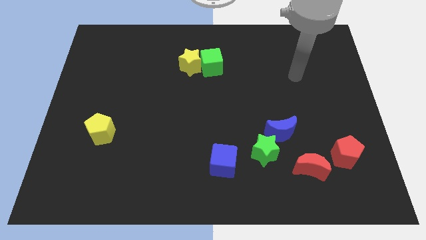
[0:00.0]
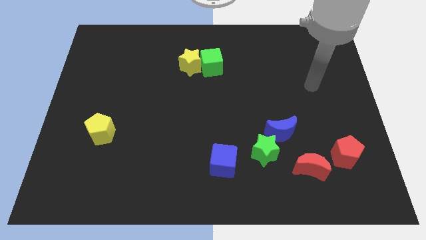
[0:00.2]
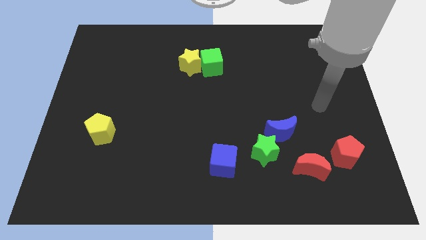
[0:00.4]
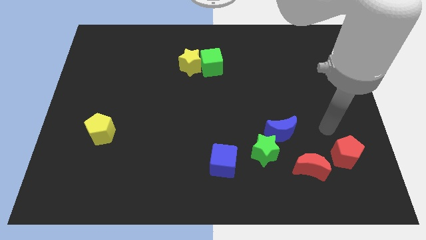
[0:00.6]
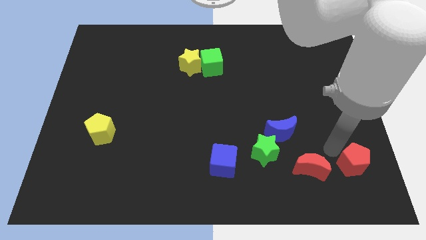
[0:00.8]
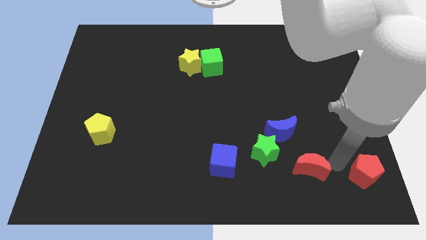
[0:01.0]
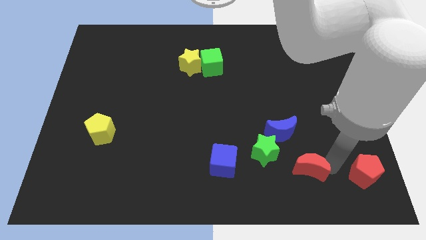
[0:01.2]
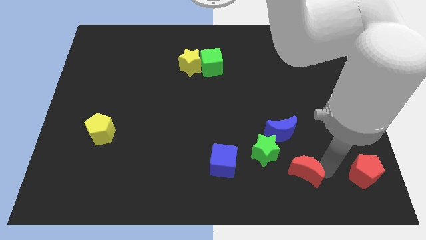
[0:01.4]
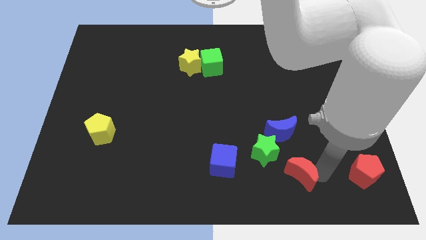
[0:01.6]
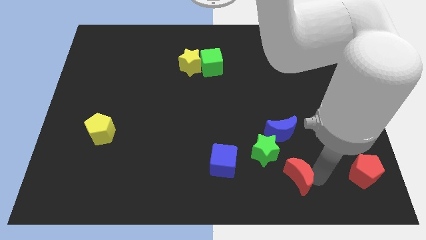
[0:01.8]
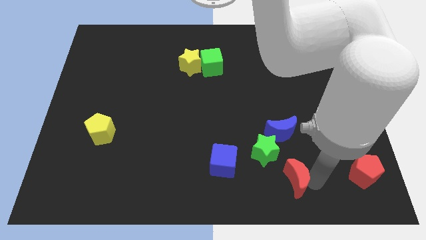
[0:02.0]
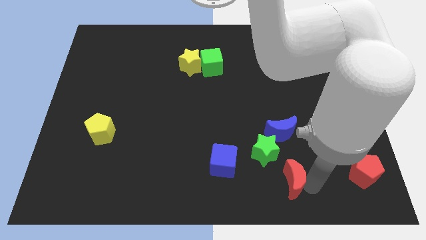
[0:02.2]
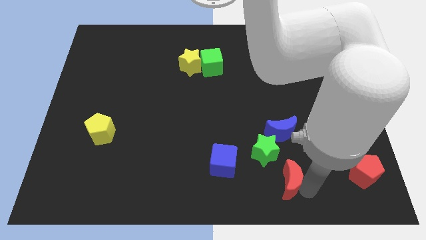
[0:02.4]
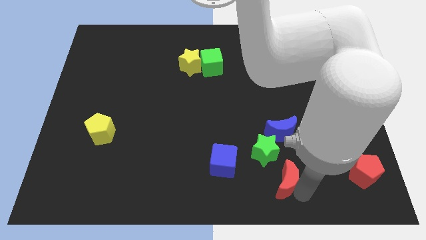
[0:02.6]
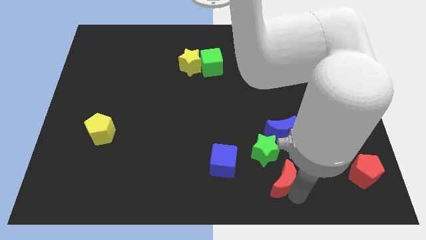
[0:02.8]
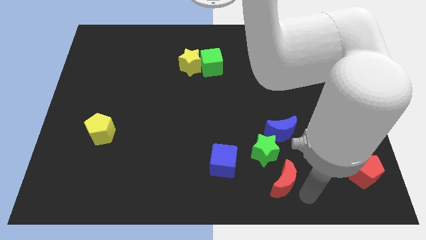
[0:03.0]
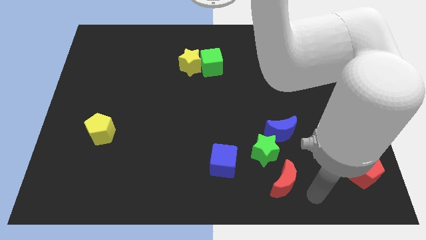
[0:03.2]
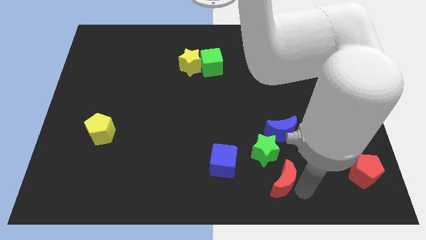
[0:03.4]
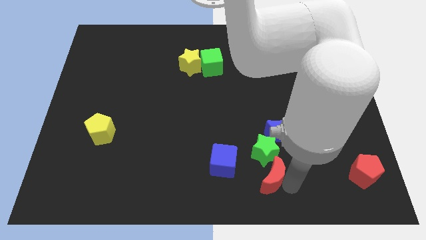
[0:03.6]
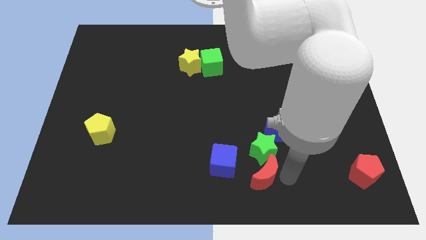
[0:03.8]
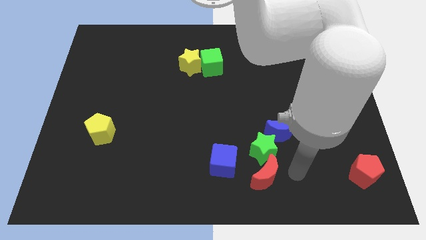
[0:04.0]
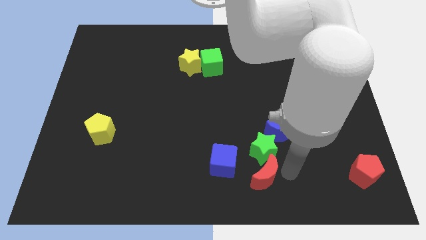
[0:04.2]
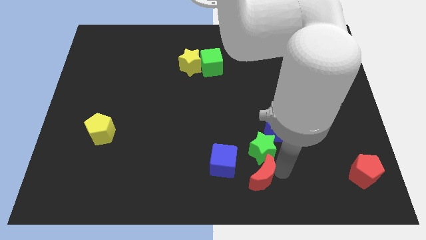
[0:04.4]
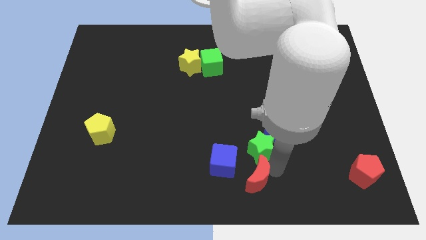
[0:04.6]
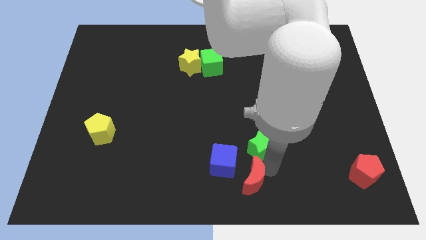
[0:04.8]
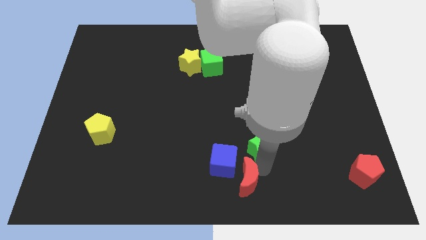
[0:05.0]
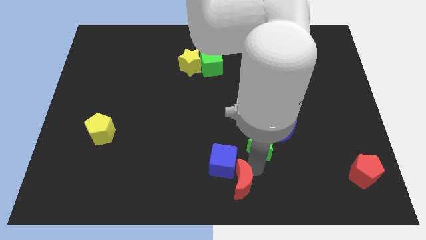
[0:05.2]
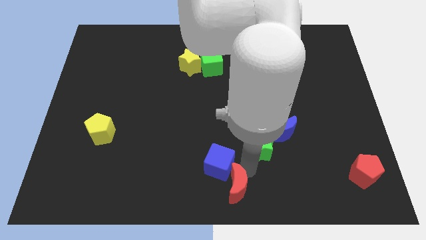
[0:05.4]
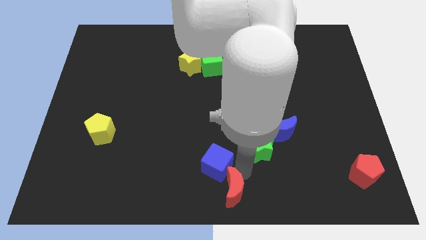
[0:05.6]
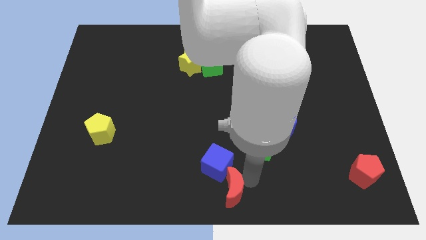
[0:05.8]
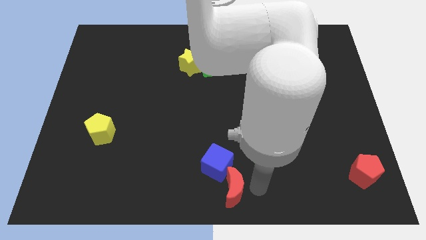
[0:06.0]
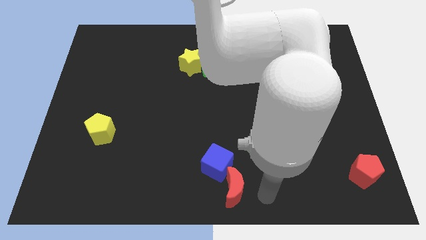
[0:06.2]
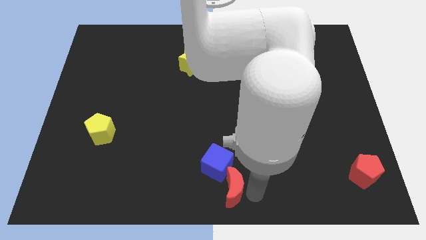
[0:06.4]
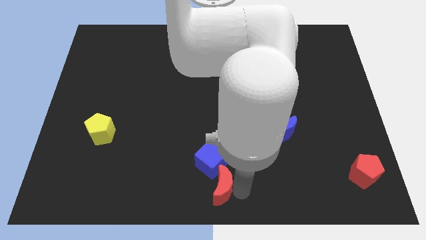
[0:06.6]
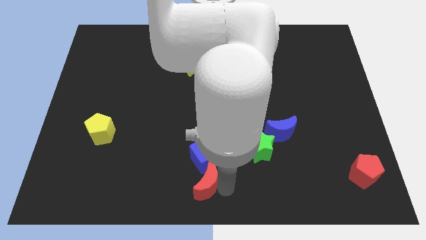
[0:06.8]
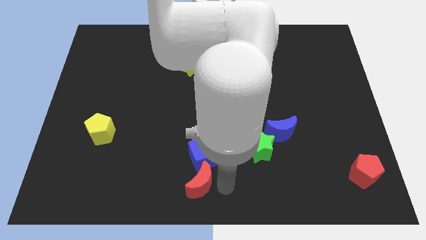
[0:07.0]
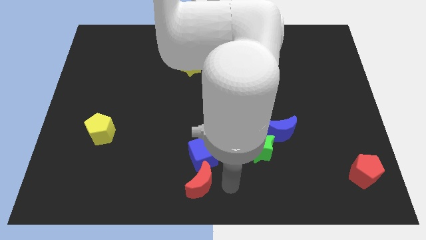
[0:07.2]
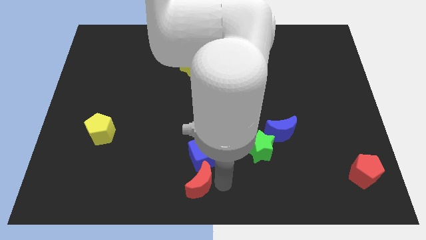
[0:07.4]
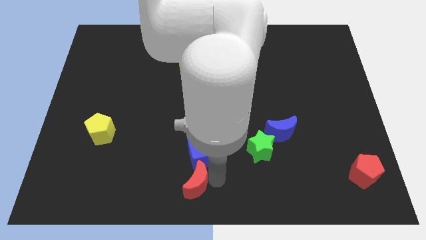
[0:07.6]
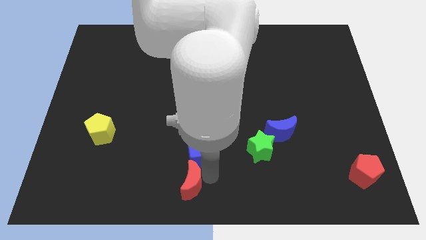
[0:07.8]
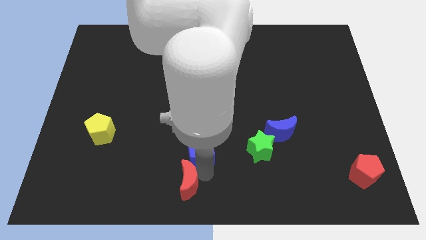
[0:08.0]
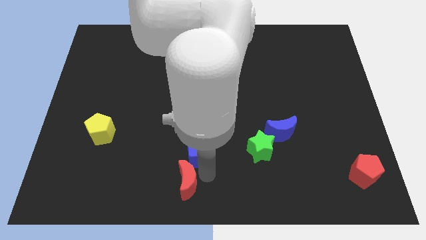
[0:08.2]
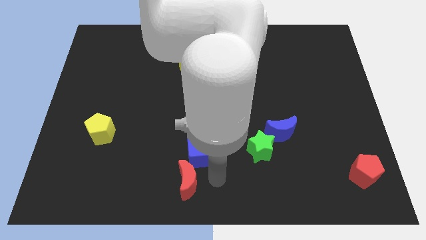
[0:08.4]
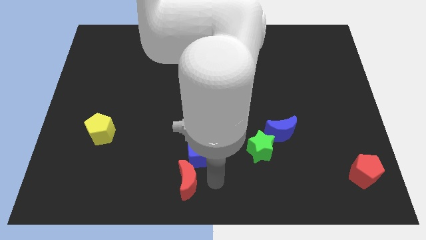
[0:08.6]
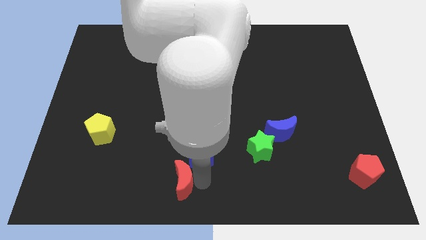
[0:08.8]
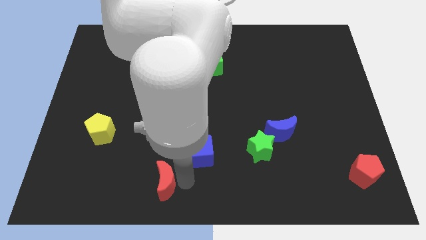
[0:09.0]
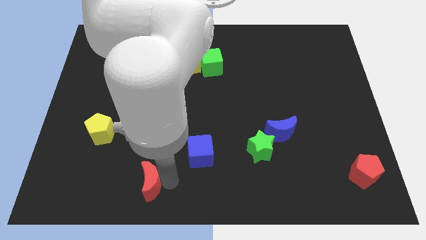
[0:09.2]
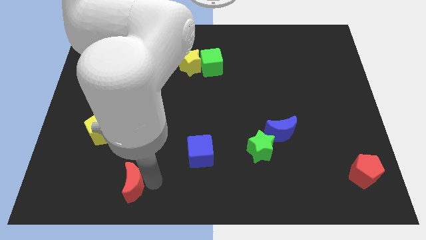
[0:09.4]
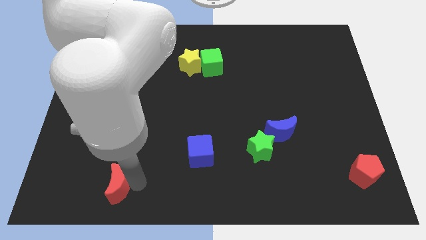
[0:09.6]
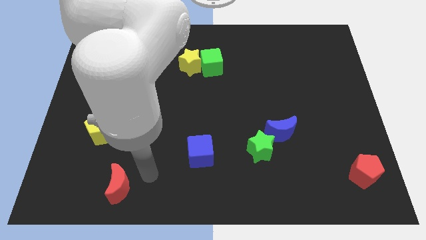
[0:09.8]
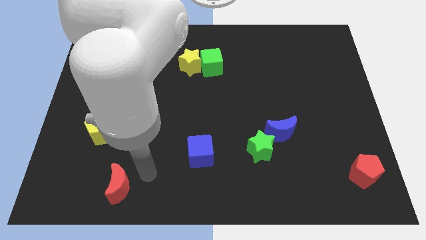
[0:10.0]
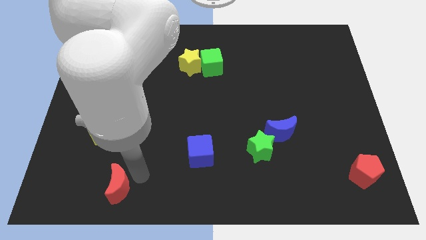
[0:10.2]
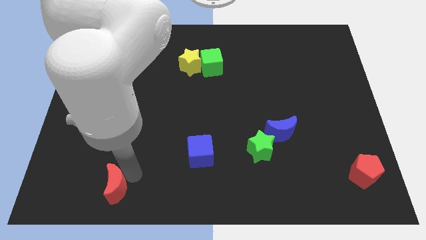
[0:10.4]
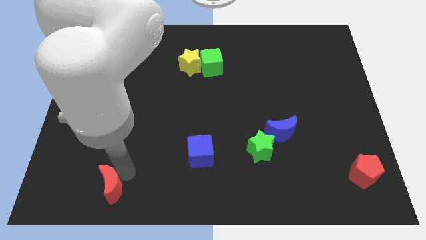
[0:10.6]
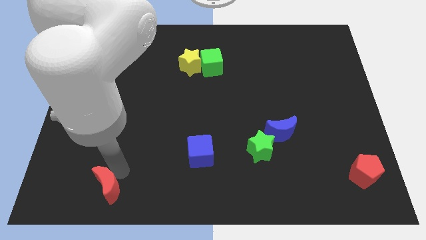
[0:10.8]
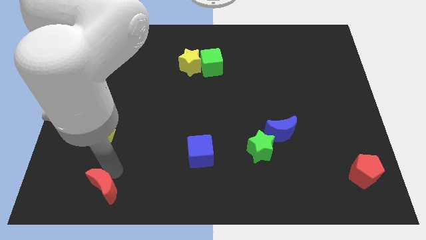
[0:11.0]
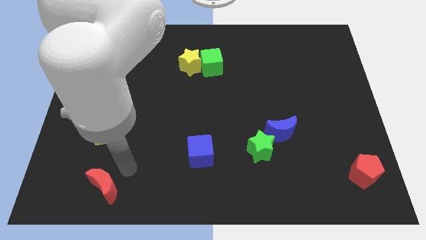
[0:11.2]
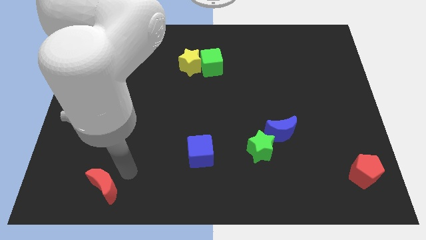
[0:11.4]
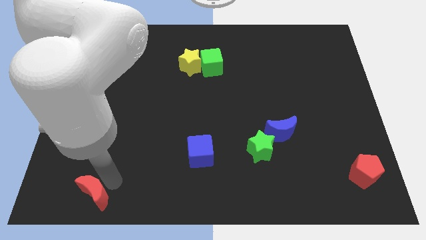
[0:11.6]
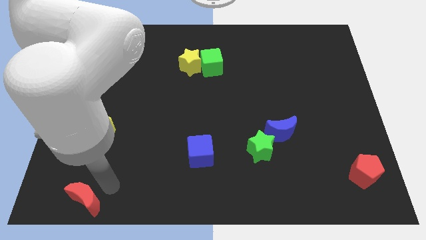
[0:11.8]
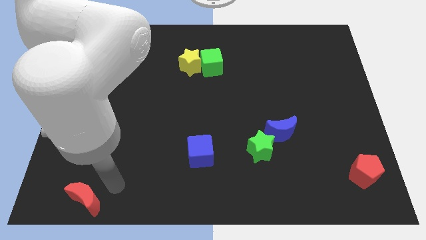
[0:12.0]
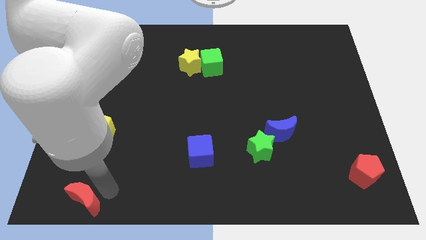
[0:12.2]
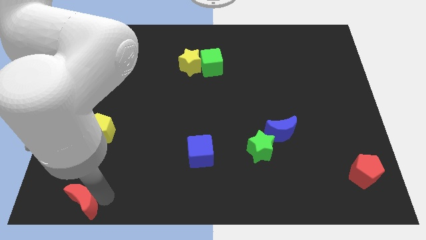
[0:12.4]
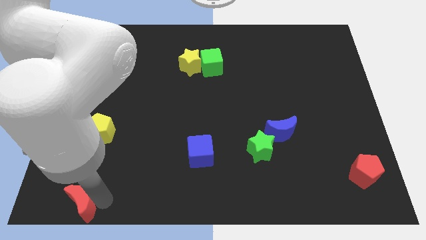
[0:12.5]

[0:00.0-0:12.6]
put the red moon to the lower left corner

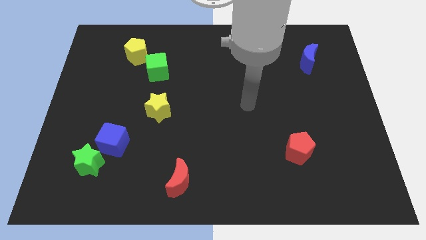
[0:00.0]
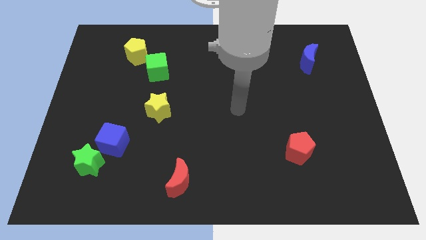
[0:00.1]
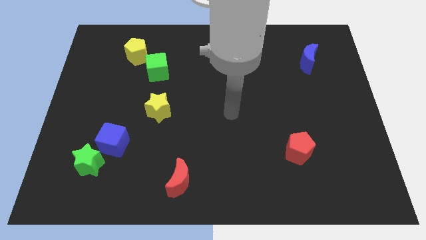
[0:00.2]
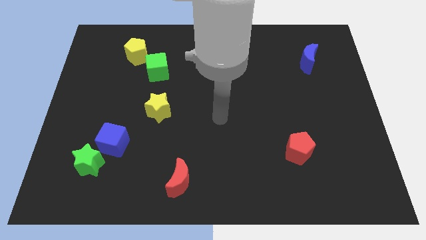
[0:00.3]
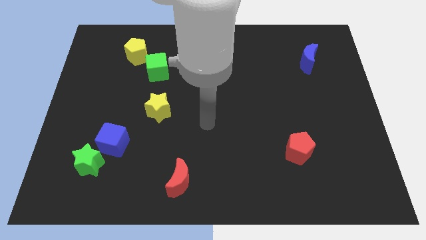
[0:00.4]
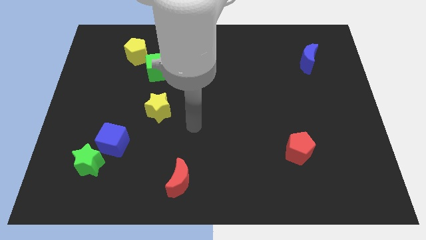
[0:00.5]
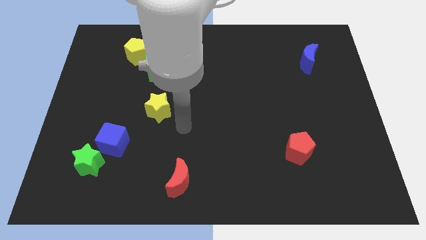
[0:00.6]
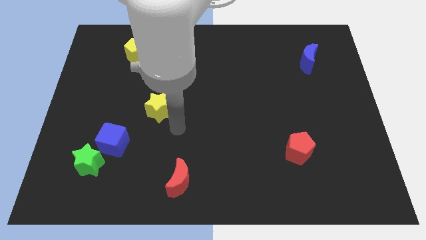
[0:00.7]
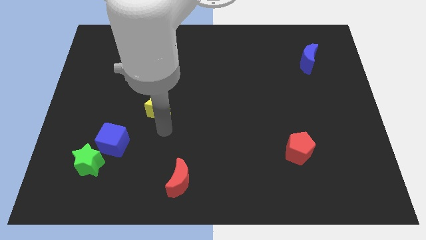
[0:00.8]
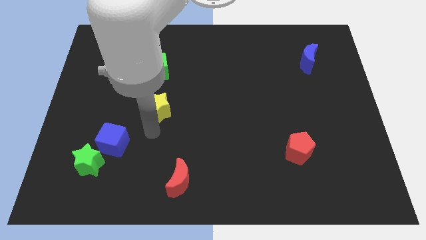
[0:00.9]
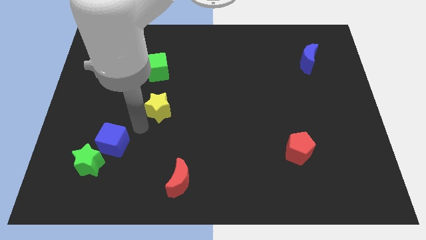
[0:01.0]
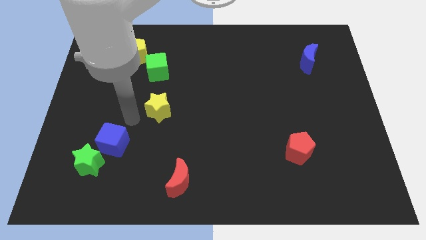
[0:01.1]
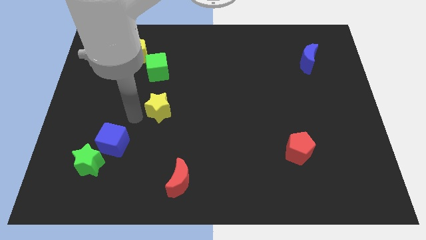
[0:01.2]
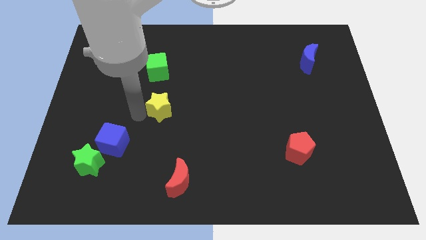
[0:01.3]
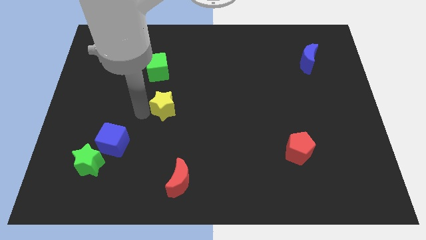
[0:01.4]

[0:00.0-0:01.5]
move the yellow star to the center of the board
